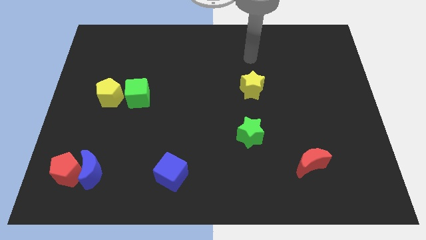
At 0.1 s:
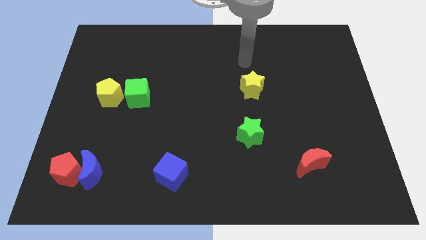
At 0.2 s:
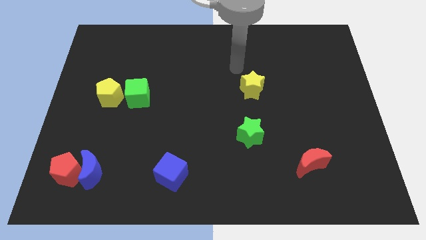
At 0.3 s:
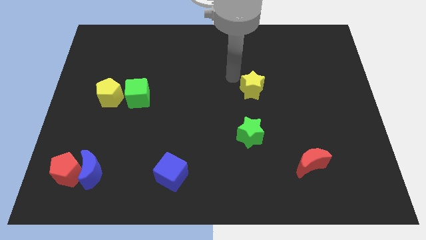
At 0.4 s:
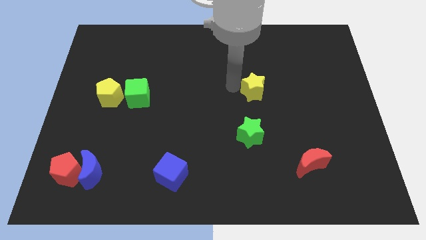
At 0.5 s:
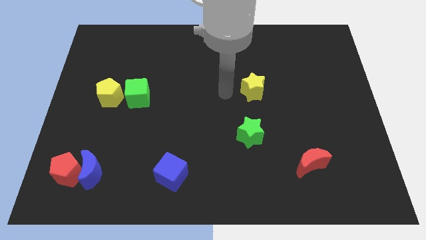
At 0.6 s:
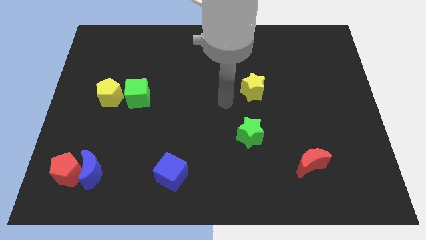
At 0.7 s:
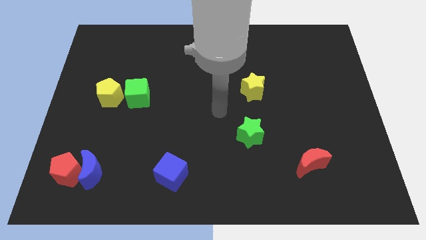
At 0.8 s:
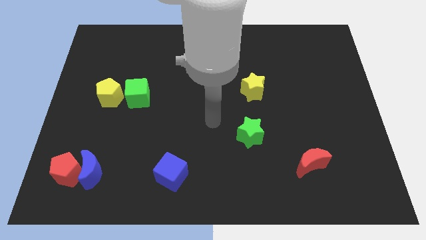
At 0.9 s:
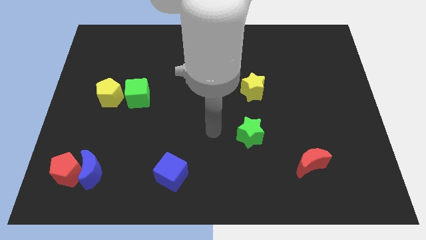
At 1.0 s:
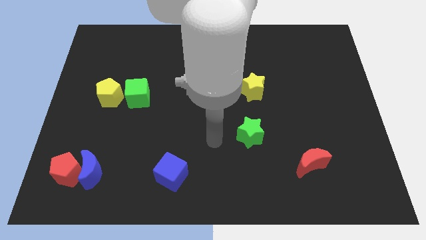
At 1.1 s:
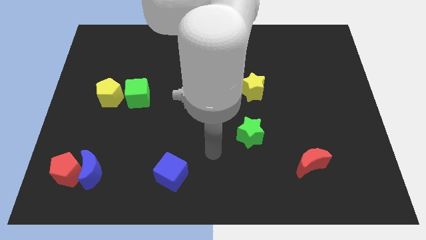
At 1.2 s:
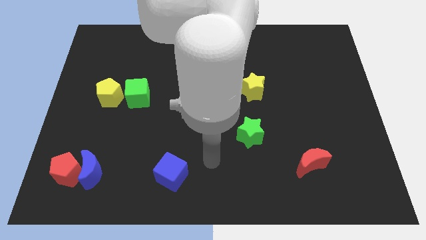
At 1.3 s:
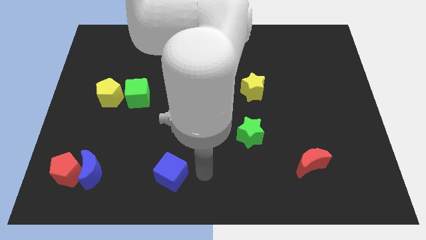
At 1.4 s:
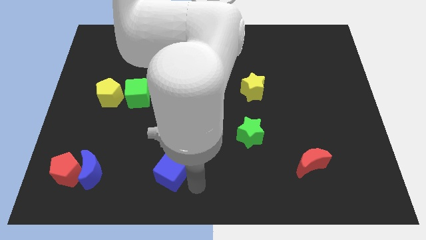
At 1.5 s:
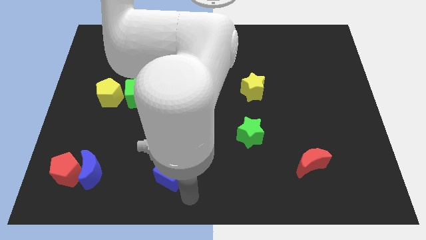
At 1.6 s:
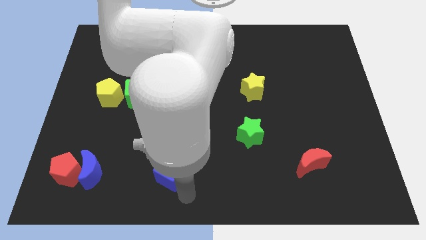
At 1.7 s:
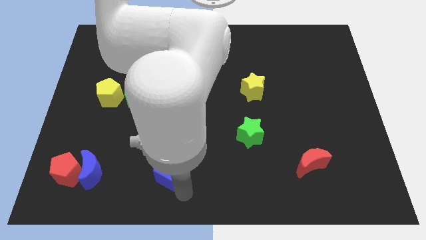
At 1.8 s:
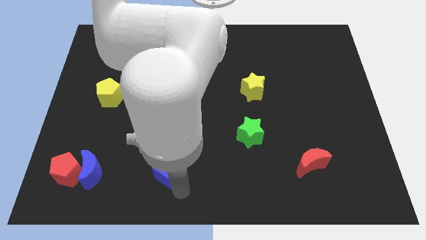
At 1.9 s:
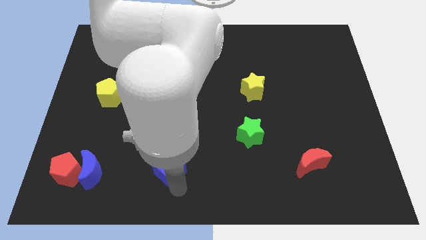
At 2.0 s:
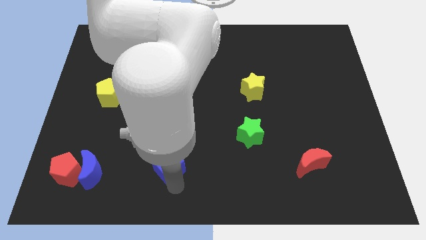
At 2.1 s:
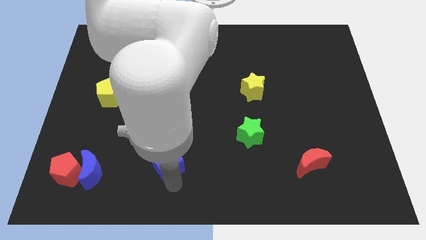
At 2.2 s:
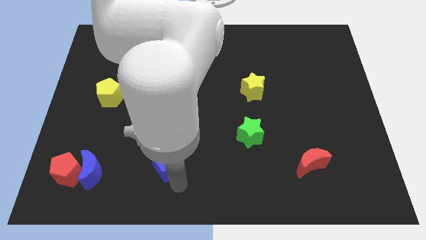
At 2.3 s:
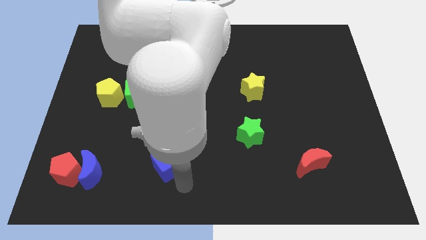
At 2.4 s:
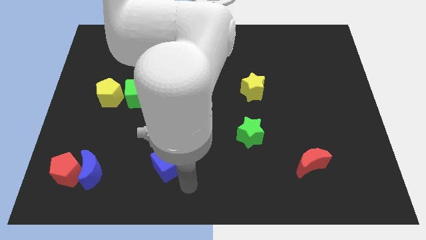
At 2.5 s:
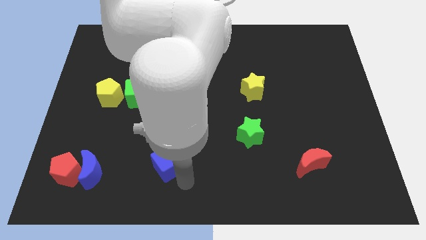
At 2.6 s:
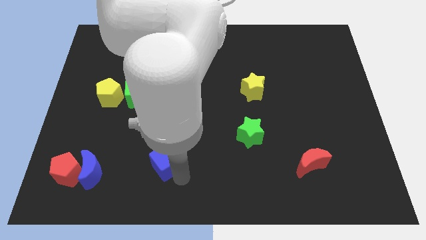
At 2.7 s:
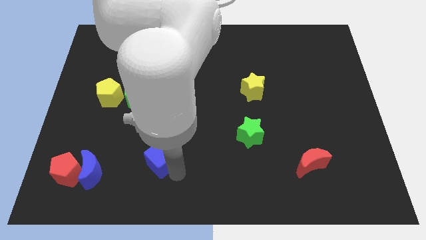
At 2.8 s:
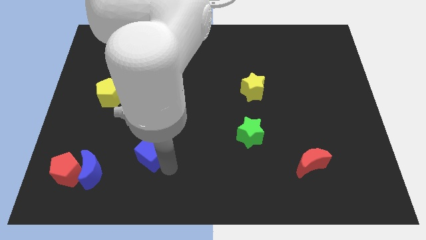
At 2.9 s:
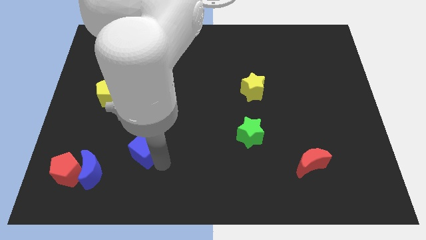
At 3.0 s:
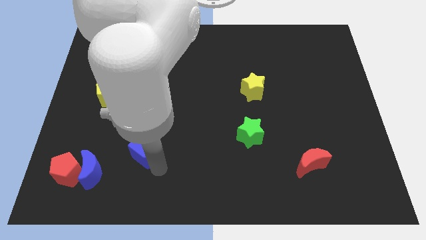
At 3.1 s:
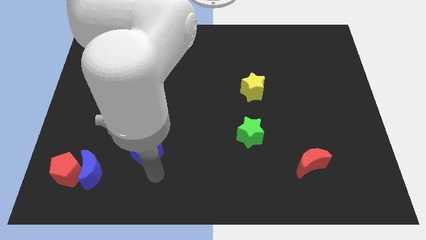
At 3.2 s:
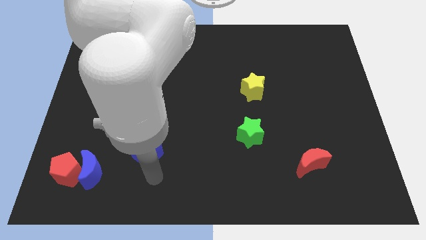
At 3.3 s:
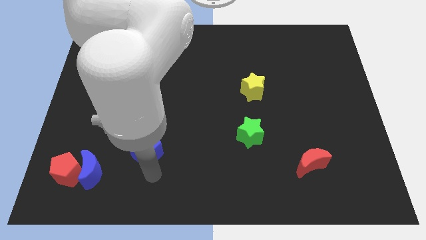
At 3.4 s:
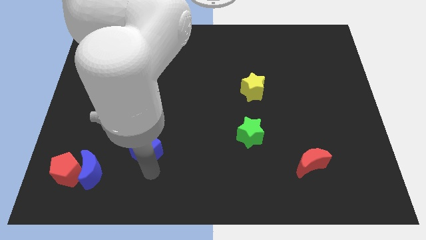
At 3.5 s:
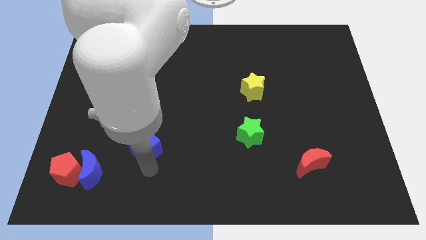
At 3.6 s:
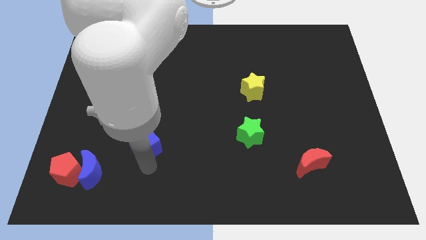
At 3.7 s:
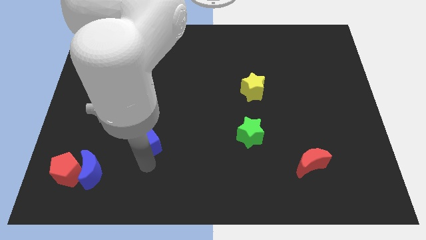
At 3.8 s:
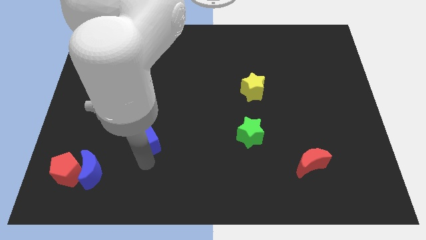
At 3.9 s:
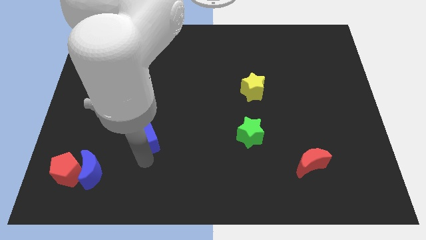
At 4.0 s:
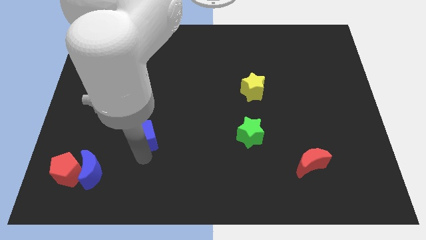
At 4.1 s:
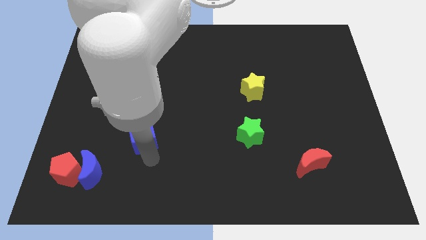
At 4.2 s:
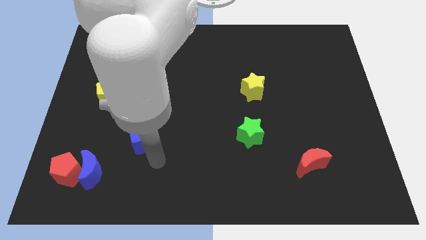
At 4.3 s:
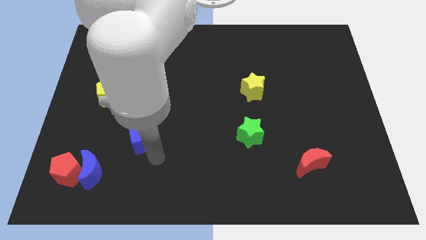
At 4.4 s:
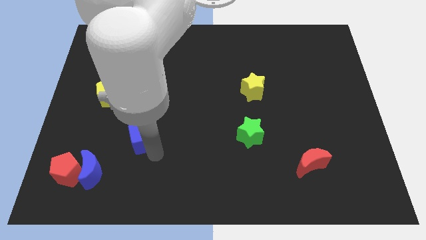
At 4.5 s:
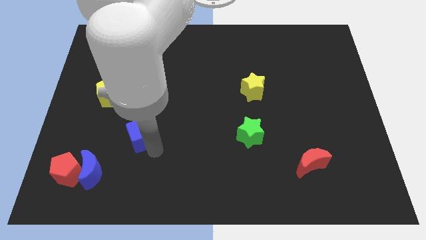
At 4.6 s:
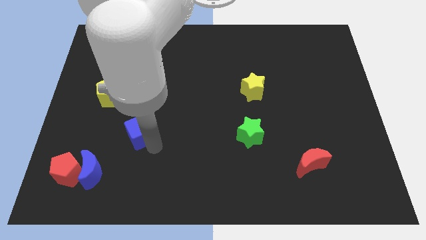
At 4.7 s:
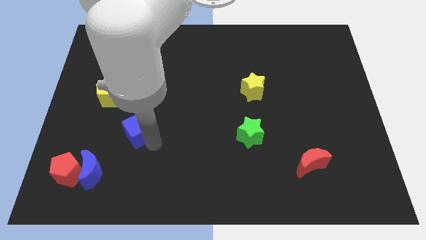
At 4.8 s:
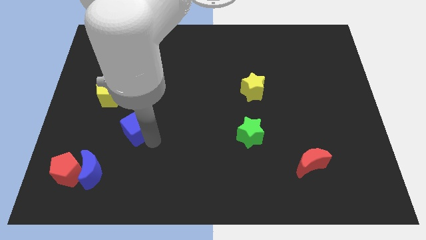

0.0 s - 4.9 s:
move the blue cube to the bottom right side of the yellow pentagon

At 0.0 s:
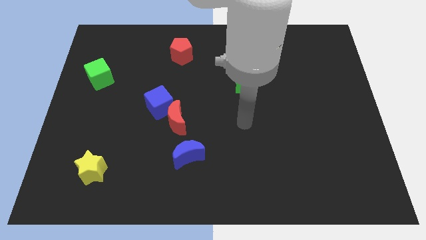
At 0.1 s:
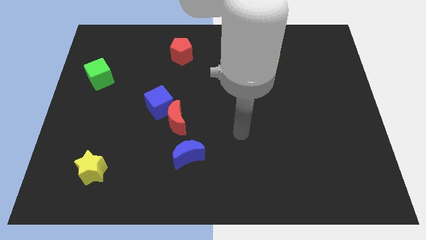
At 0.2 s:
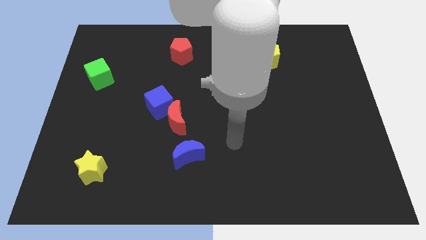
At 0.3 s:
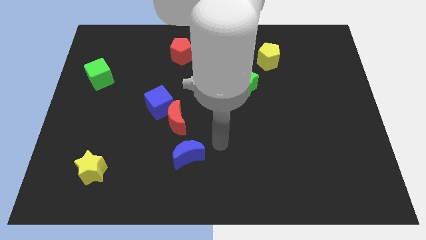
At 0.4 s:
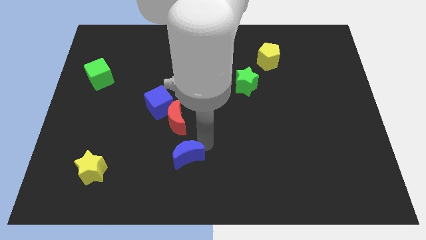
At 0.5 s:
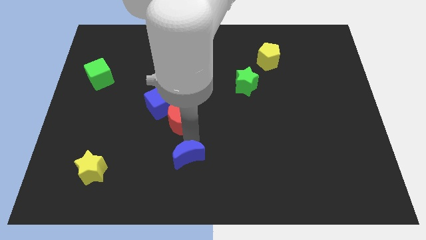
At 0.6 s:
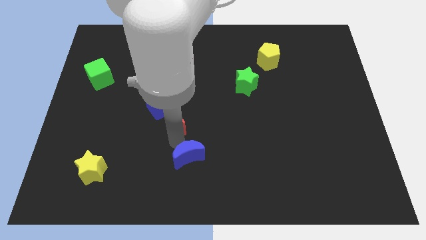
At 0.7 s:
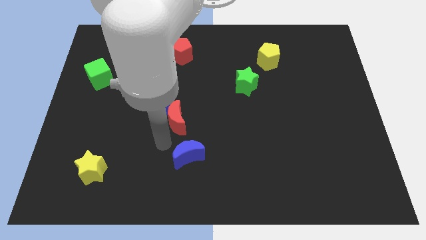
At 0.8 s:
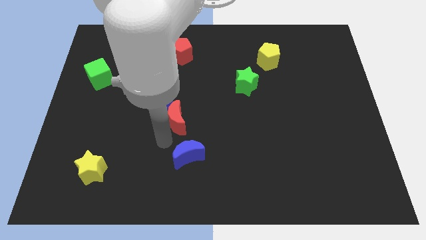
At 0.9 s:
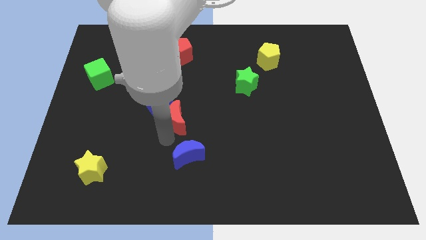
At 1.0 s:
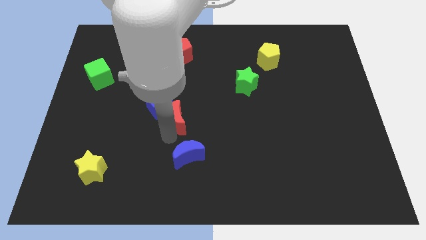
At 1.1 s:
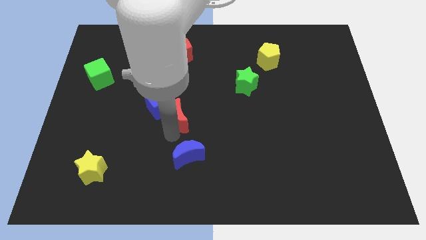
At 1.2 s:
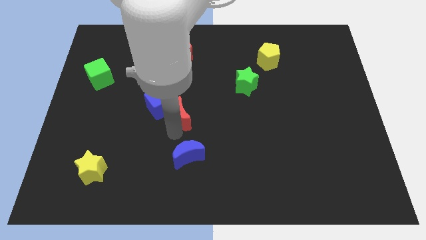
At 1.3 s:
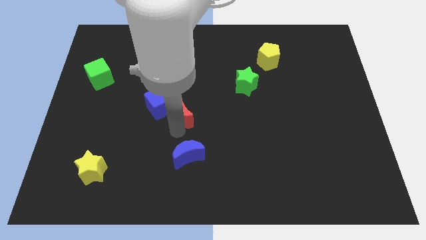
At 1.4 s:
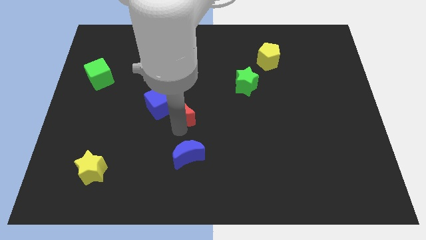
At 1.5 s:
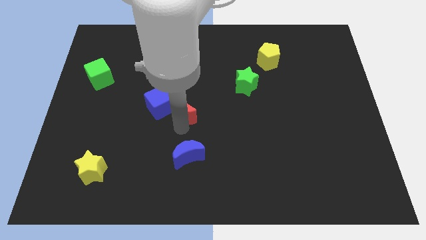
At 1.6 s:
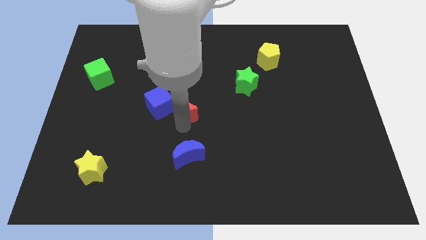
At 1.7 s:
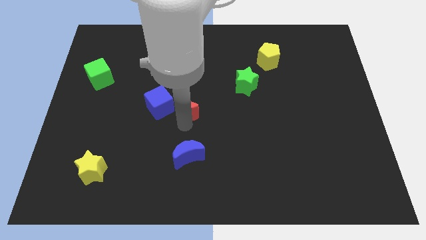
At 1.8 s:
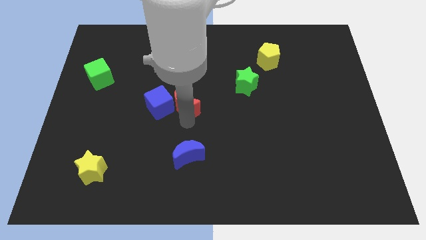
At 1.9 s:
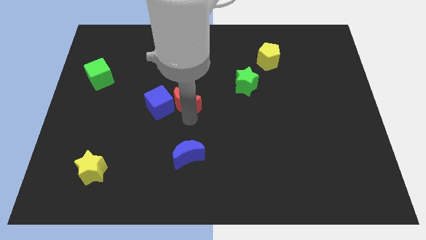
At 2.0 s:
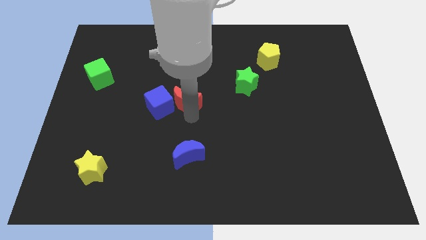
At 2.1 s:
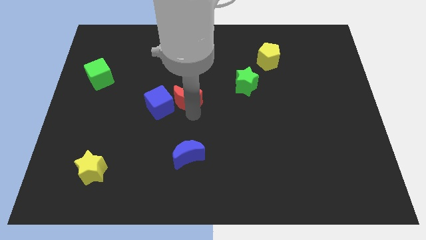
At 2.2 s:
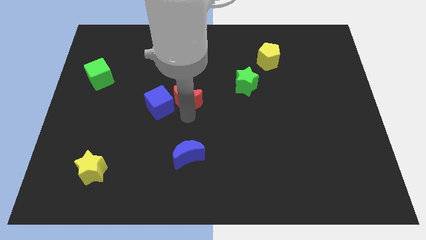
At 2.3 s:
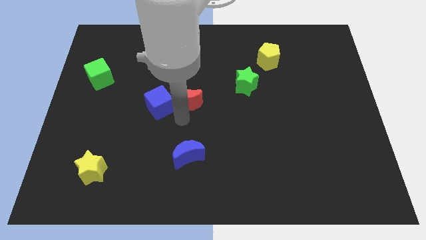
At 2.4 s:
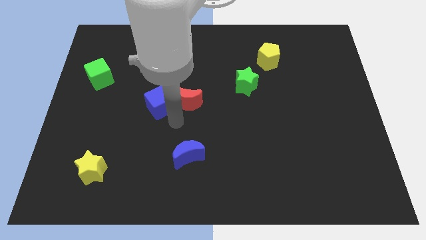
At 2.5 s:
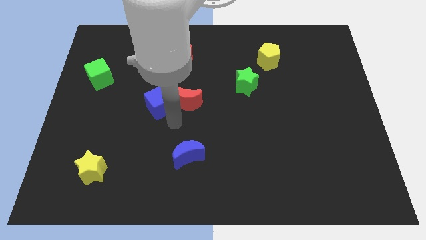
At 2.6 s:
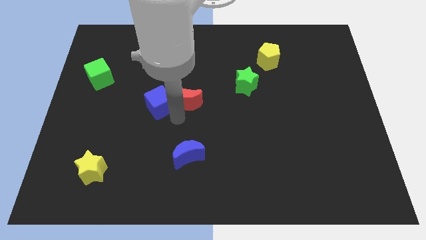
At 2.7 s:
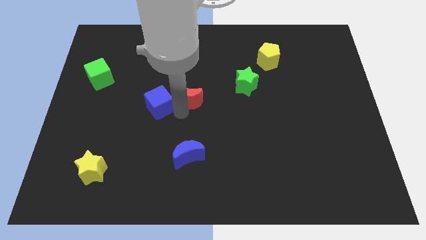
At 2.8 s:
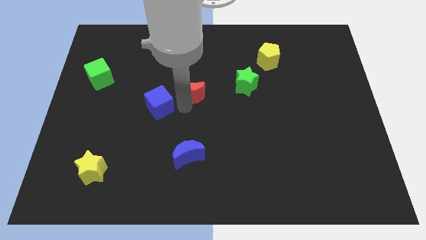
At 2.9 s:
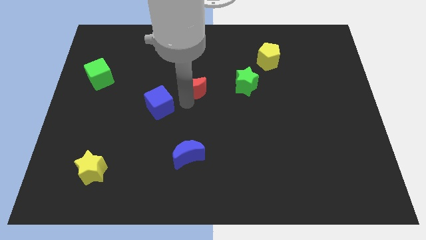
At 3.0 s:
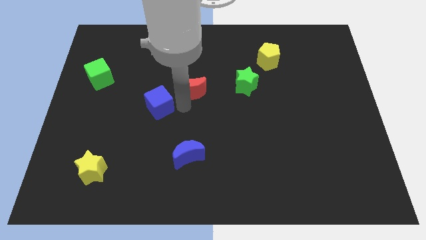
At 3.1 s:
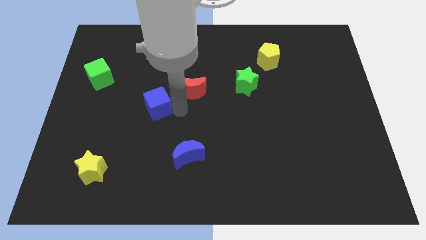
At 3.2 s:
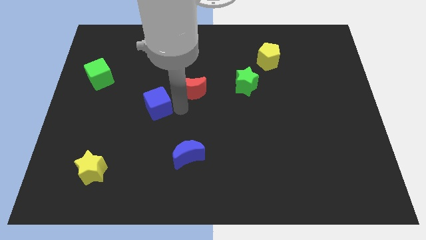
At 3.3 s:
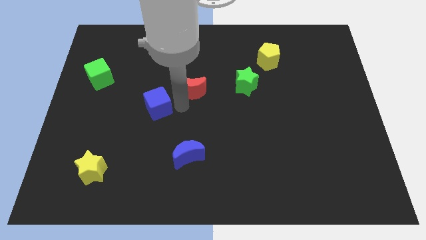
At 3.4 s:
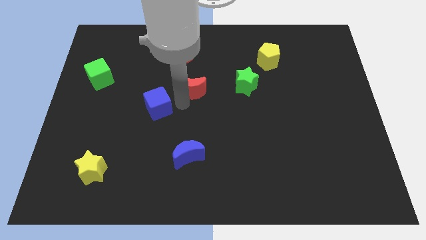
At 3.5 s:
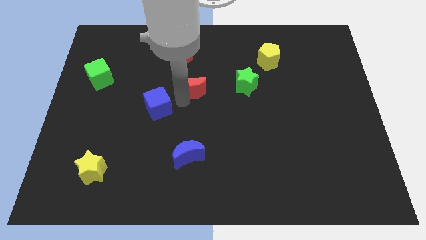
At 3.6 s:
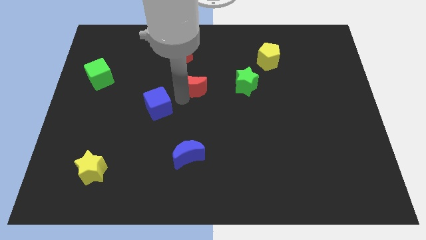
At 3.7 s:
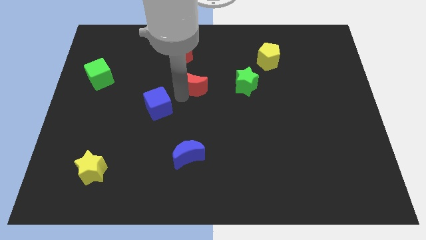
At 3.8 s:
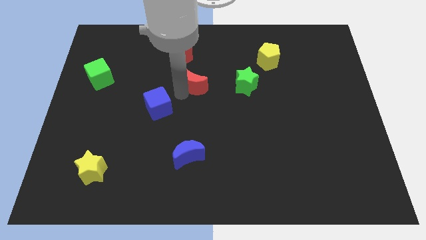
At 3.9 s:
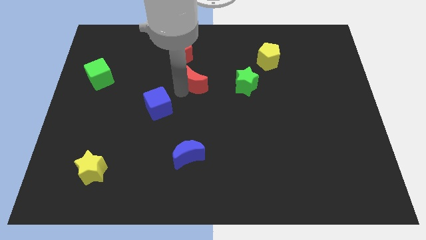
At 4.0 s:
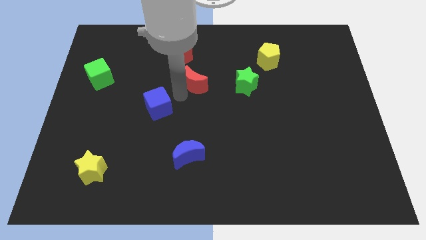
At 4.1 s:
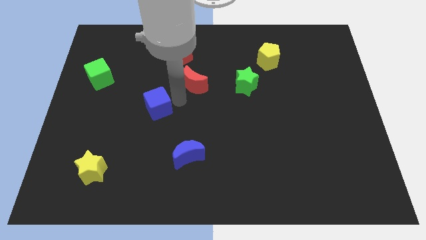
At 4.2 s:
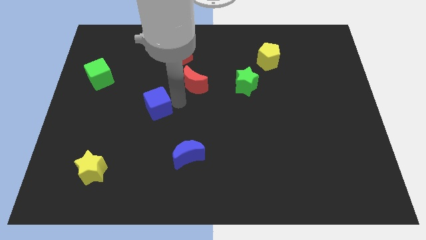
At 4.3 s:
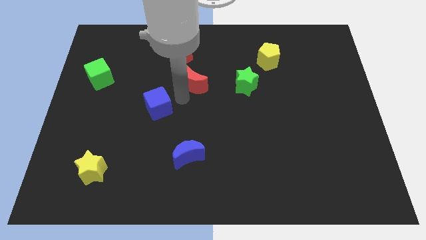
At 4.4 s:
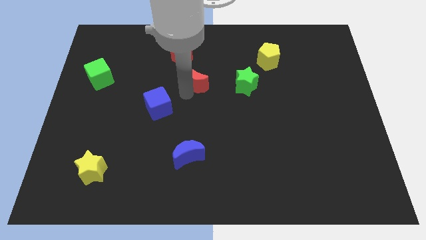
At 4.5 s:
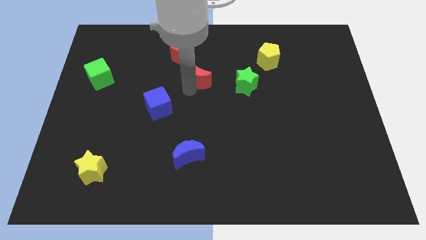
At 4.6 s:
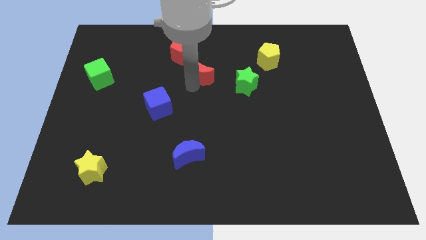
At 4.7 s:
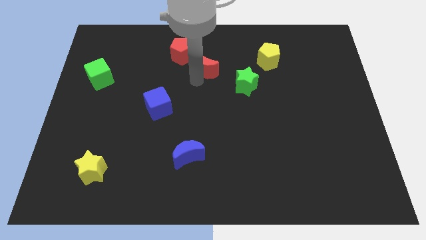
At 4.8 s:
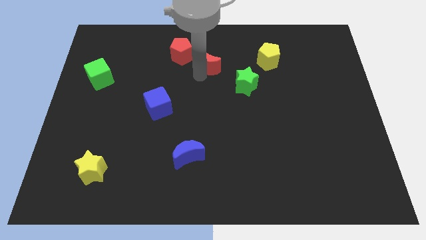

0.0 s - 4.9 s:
push the red moon just right of the red pentagon
